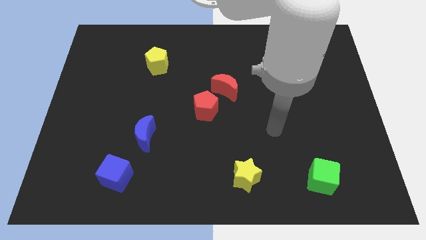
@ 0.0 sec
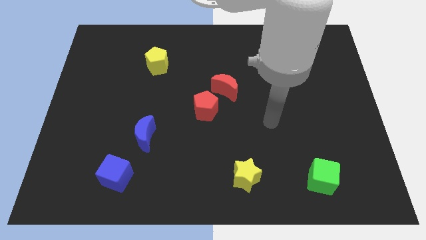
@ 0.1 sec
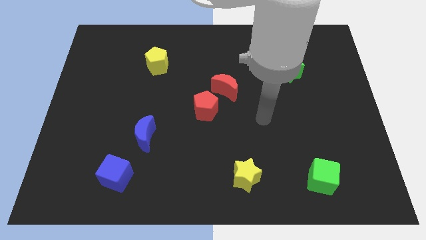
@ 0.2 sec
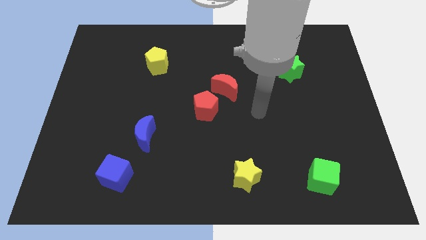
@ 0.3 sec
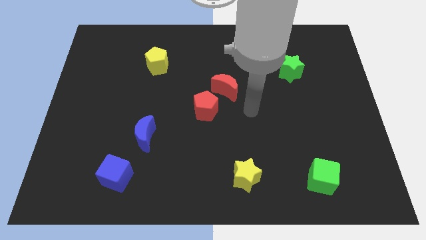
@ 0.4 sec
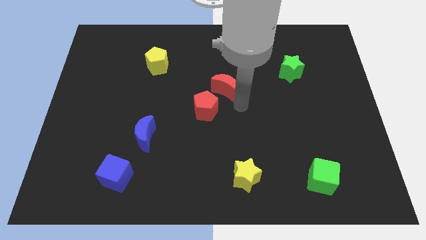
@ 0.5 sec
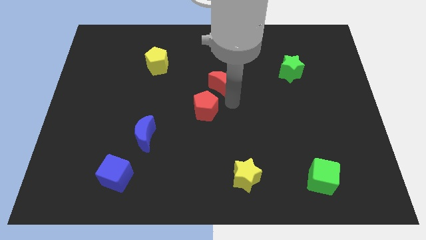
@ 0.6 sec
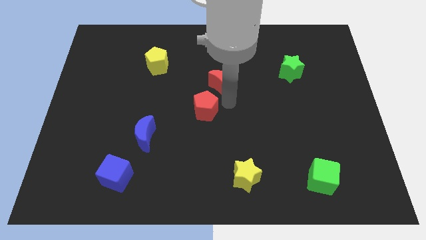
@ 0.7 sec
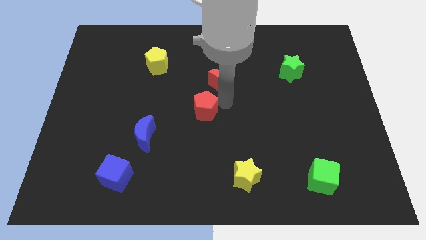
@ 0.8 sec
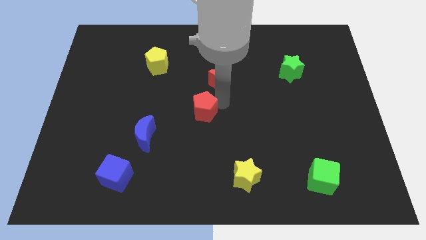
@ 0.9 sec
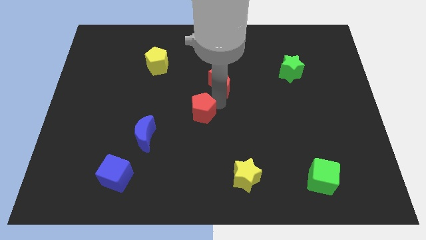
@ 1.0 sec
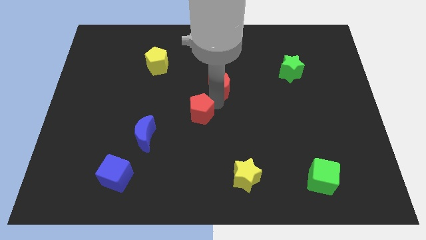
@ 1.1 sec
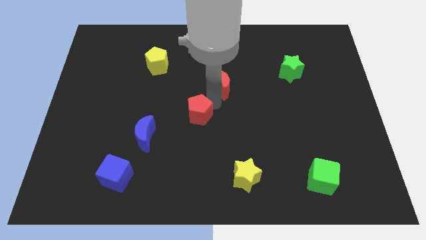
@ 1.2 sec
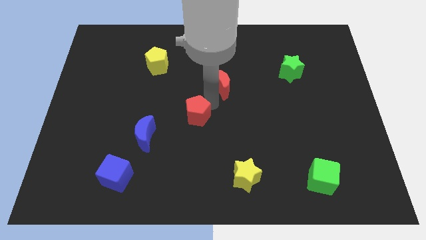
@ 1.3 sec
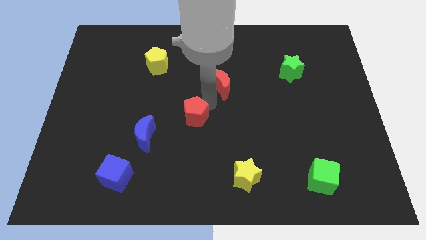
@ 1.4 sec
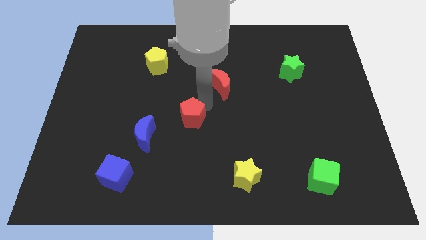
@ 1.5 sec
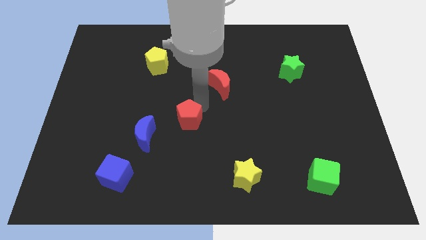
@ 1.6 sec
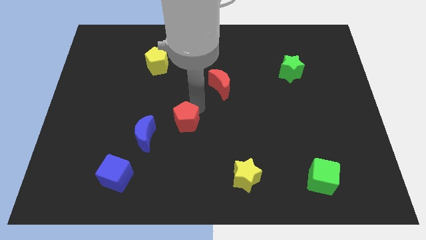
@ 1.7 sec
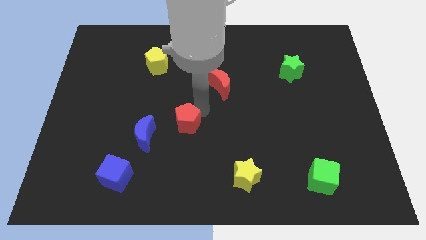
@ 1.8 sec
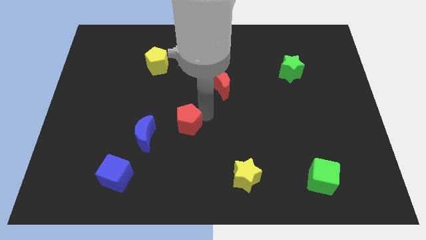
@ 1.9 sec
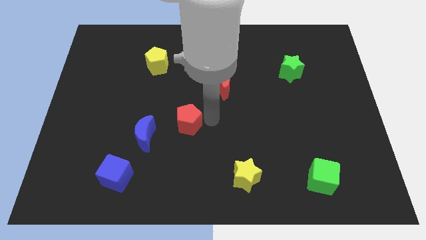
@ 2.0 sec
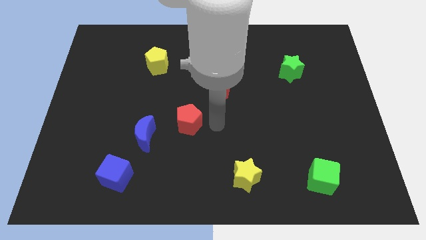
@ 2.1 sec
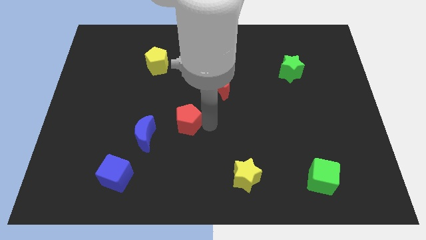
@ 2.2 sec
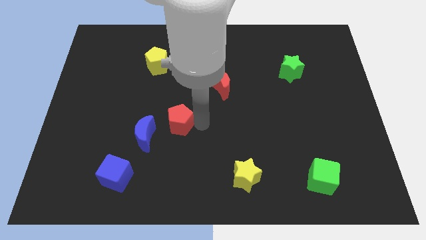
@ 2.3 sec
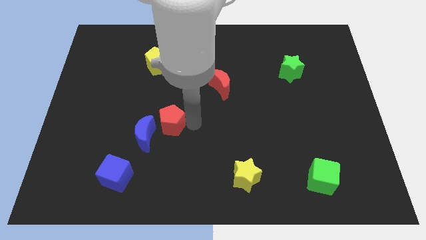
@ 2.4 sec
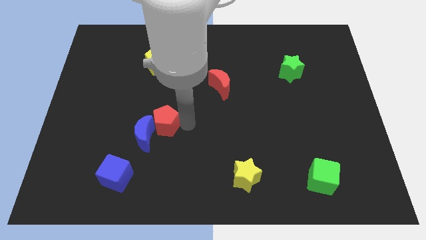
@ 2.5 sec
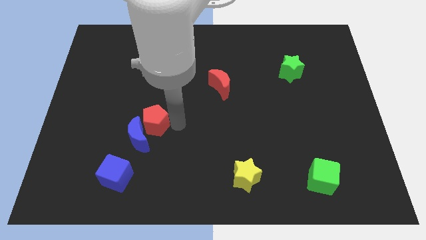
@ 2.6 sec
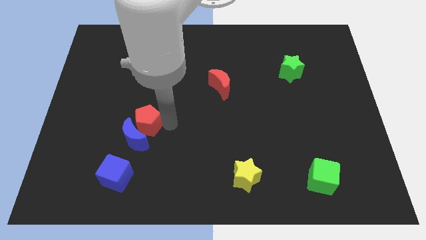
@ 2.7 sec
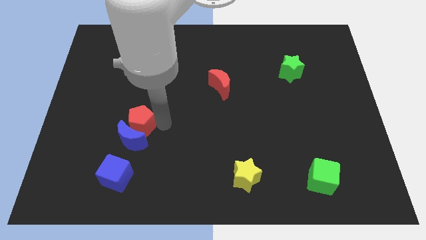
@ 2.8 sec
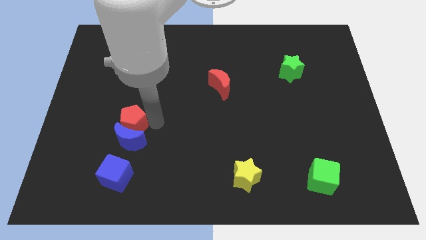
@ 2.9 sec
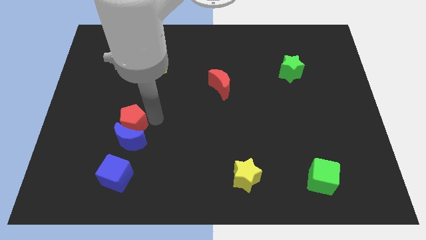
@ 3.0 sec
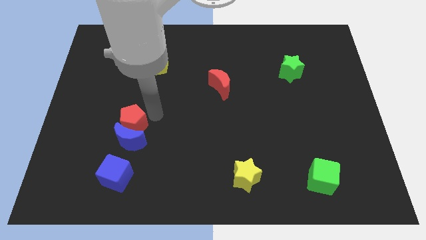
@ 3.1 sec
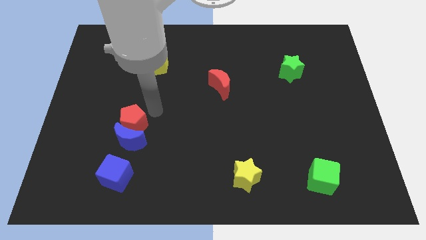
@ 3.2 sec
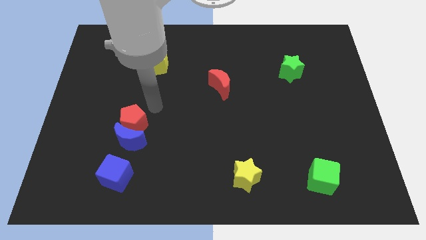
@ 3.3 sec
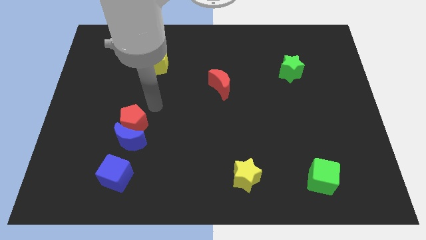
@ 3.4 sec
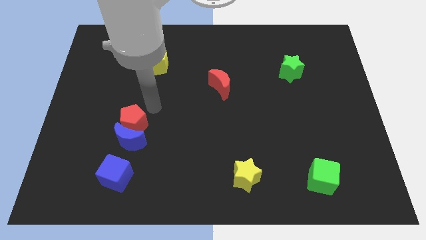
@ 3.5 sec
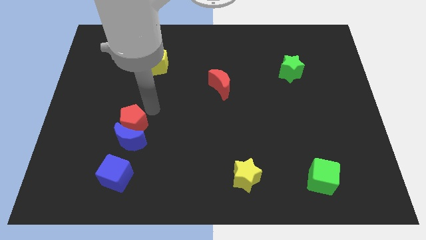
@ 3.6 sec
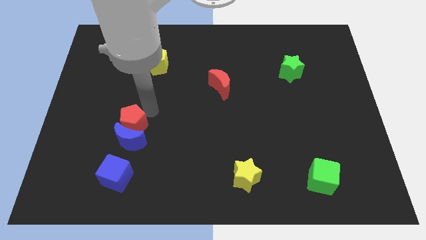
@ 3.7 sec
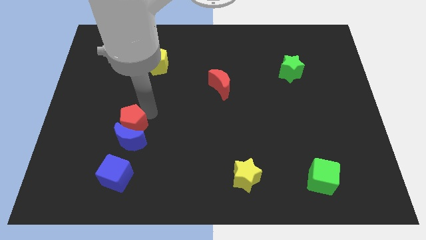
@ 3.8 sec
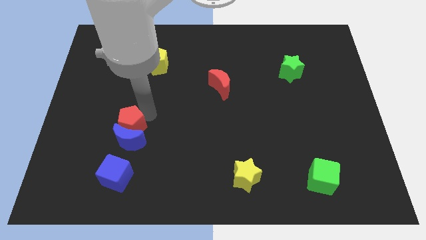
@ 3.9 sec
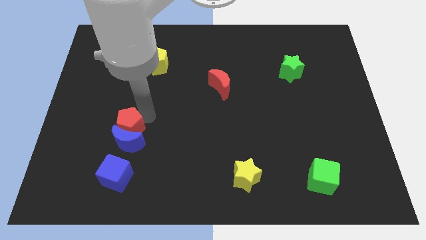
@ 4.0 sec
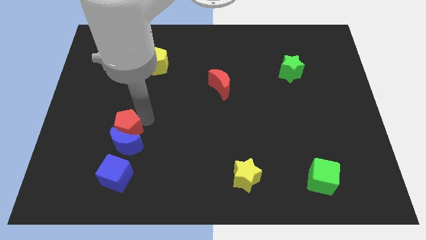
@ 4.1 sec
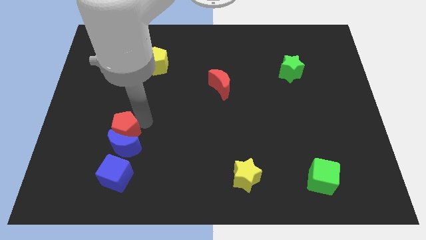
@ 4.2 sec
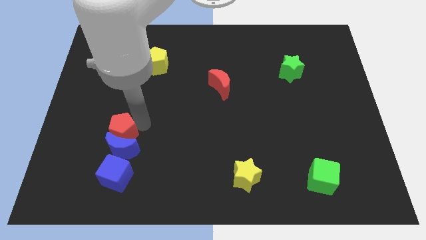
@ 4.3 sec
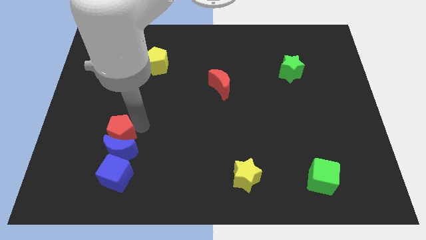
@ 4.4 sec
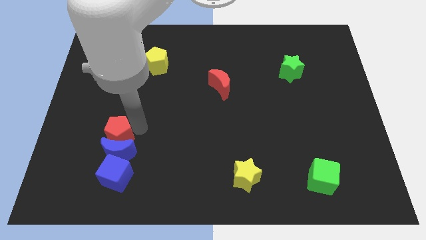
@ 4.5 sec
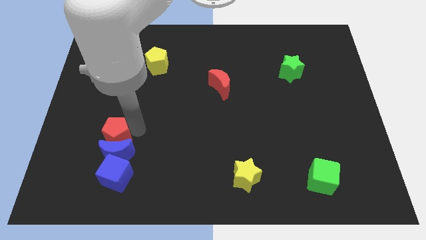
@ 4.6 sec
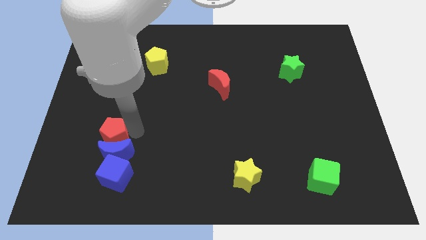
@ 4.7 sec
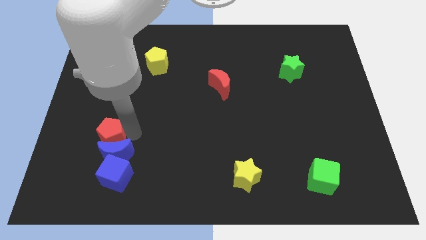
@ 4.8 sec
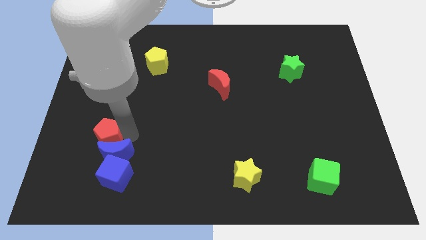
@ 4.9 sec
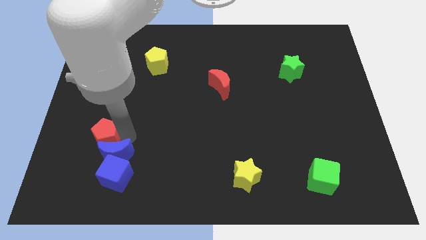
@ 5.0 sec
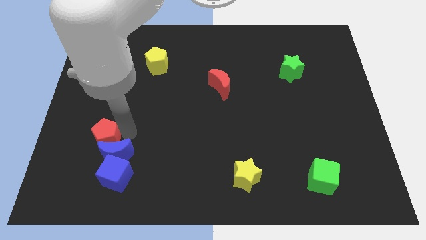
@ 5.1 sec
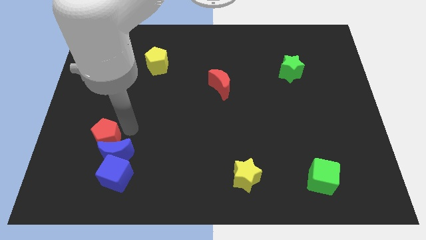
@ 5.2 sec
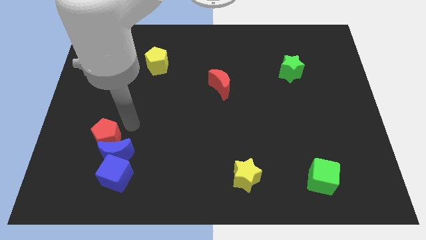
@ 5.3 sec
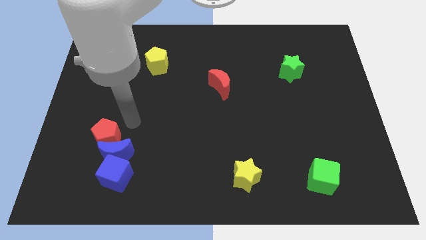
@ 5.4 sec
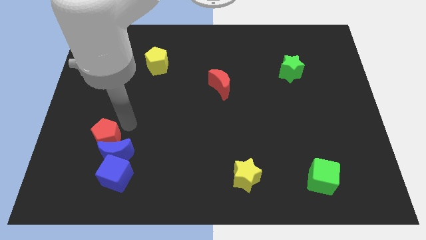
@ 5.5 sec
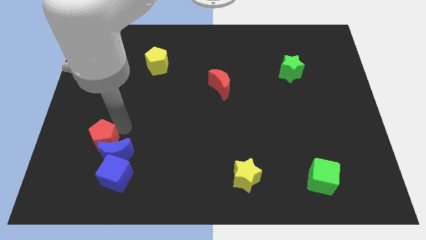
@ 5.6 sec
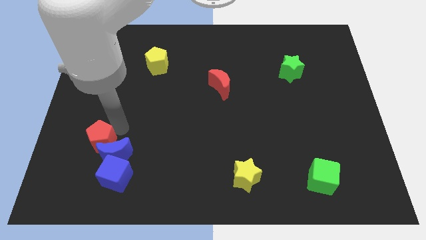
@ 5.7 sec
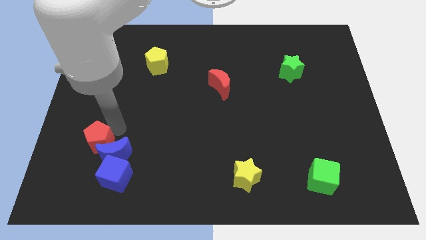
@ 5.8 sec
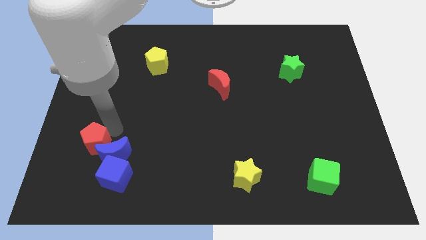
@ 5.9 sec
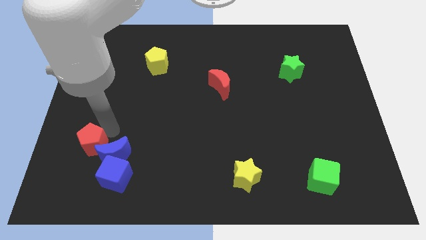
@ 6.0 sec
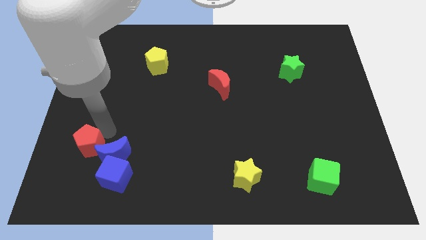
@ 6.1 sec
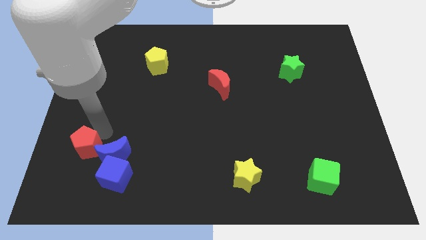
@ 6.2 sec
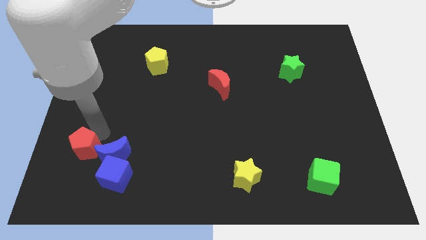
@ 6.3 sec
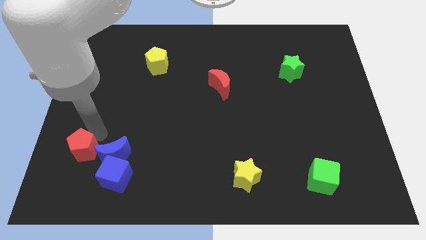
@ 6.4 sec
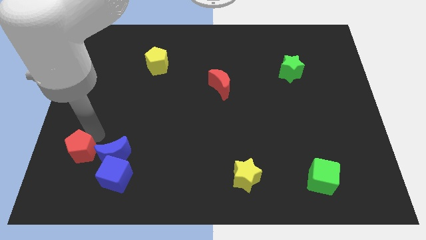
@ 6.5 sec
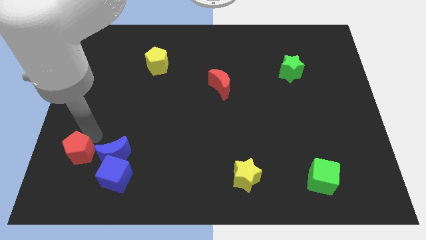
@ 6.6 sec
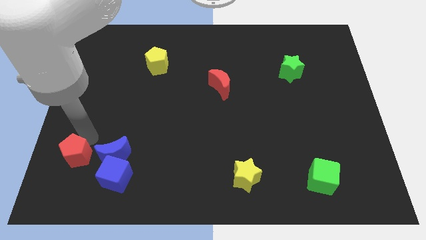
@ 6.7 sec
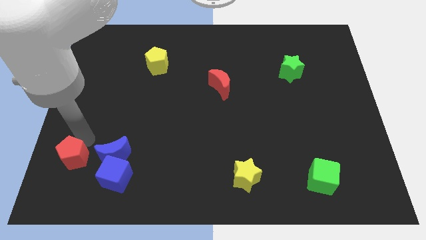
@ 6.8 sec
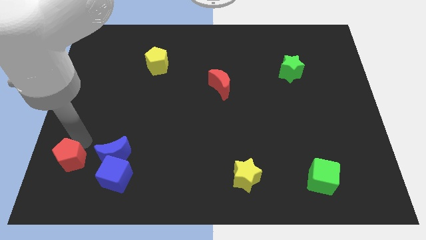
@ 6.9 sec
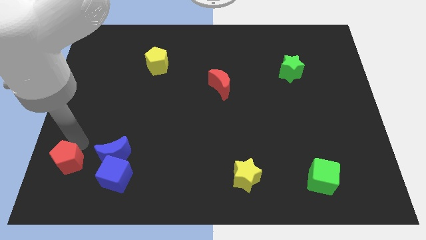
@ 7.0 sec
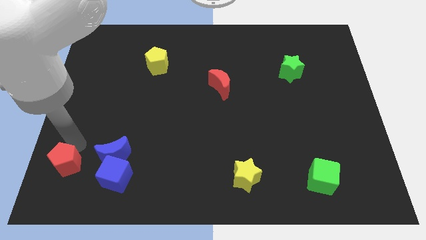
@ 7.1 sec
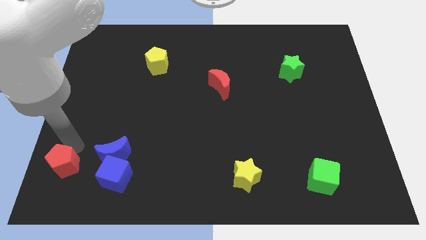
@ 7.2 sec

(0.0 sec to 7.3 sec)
put the red pentagon to the lower left corner
